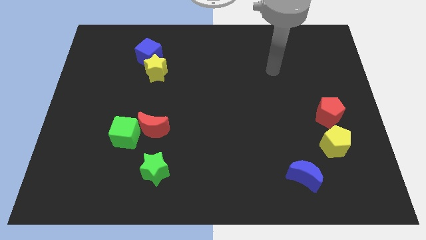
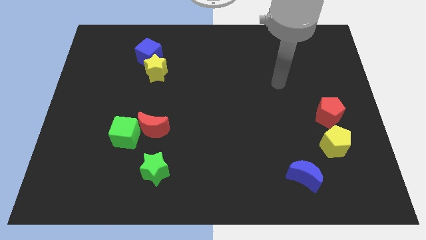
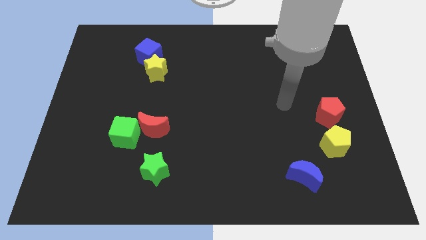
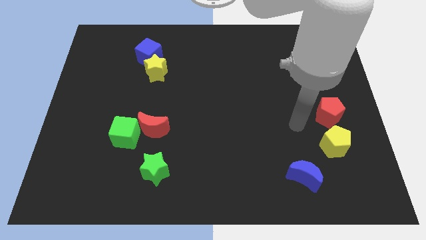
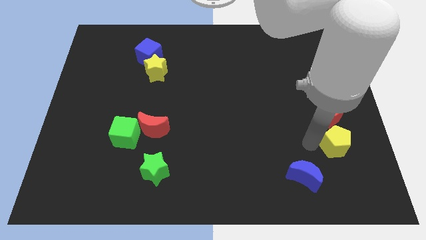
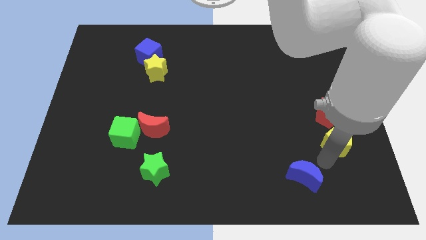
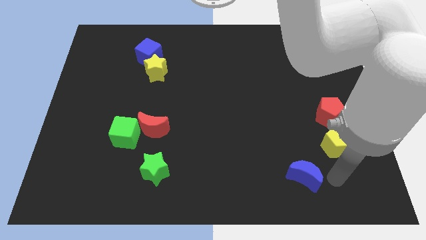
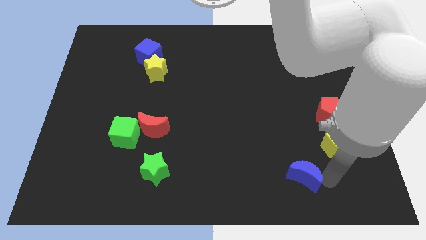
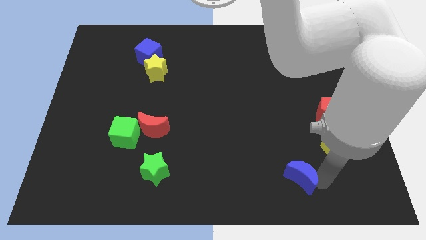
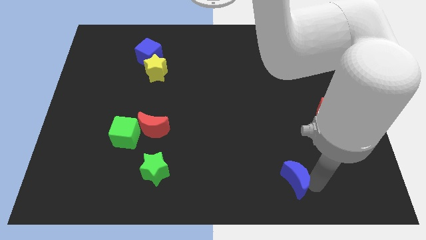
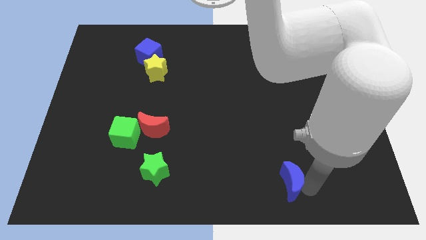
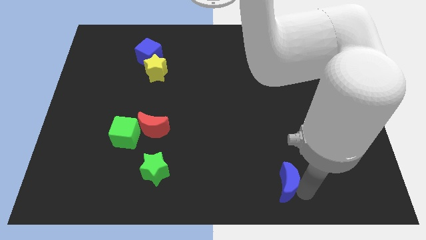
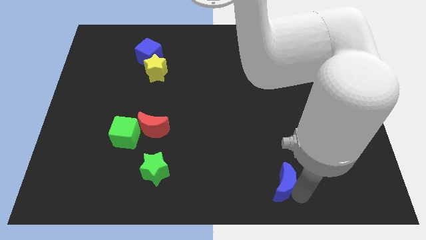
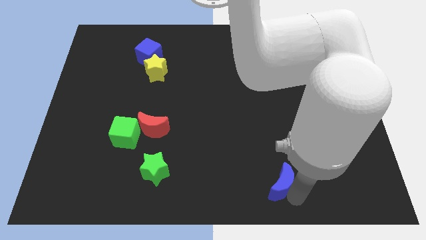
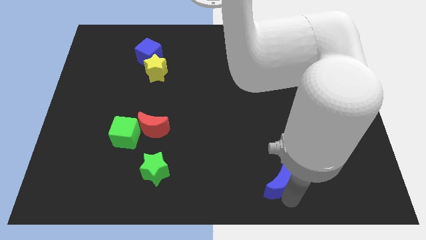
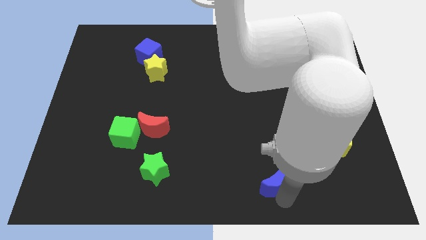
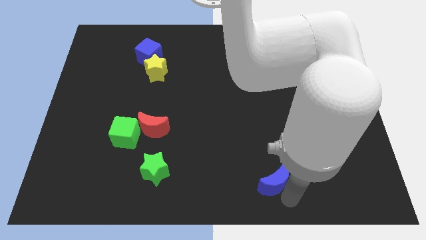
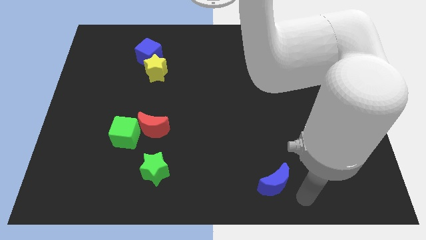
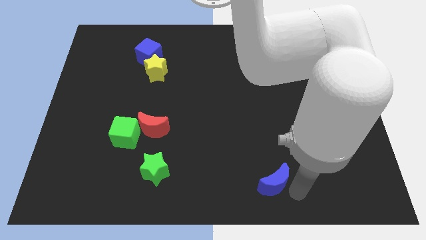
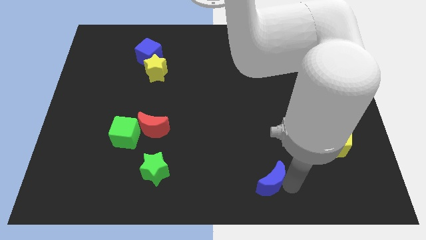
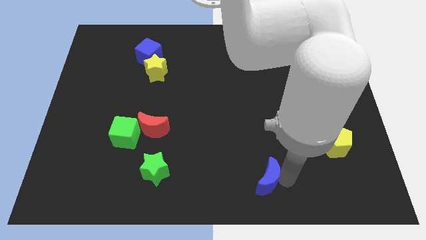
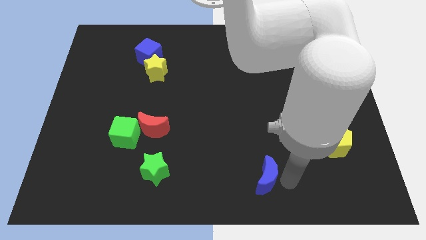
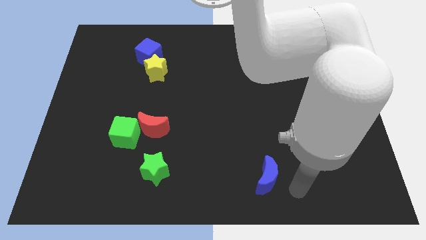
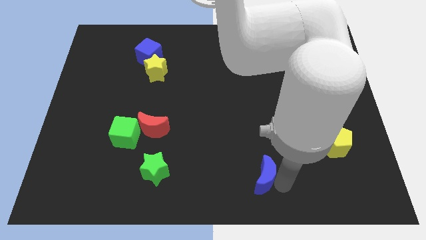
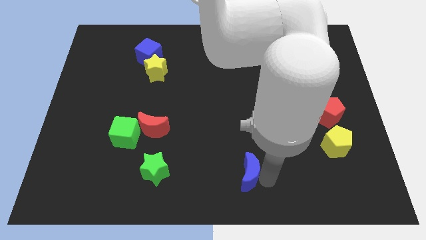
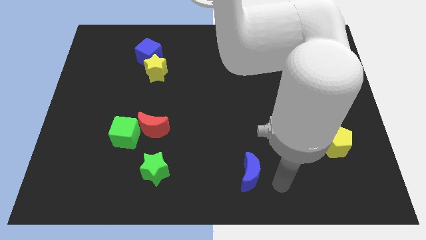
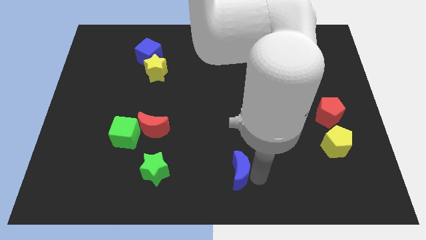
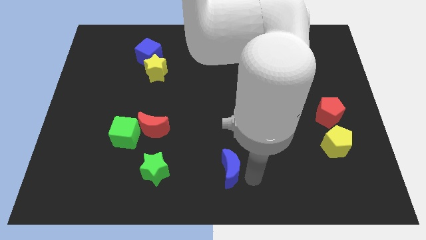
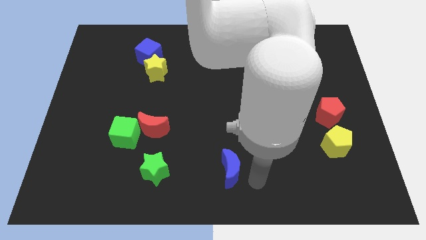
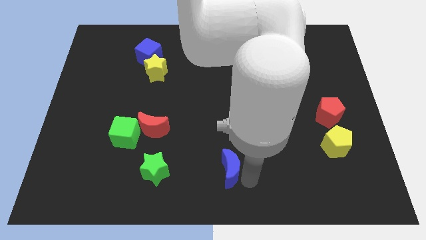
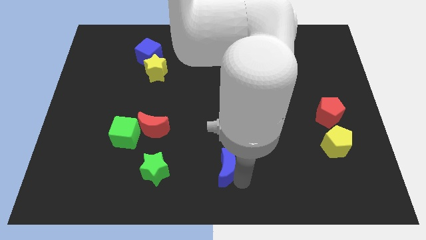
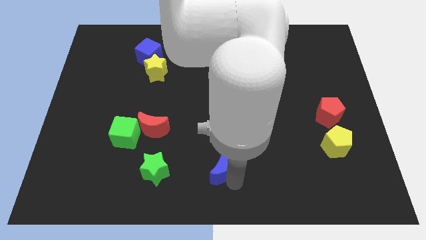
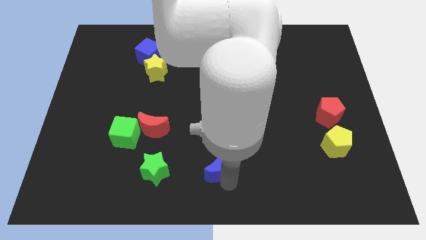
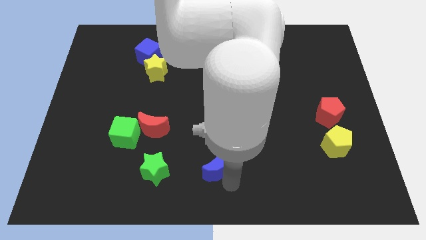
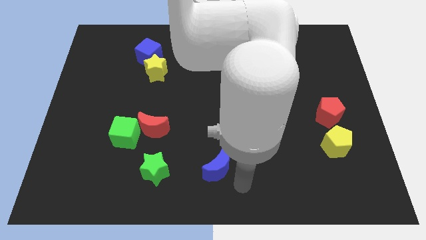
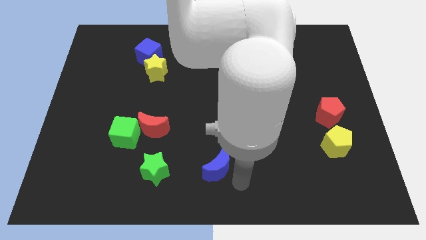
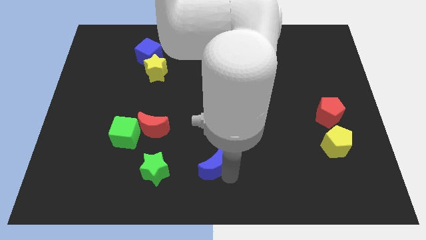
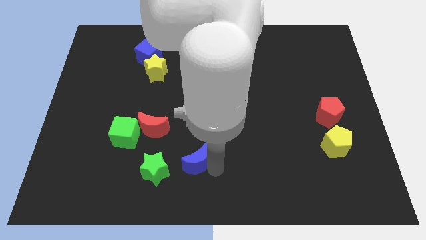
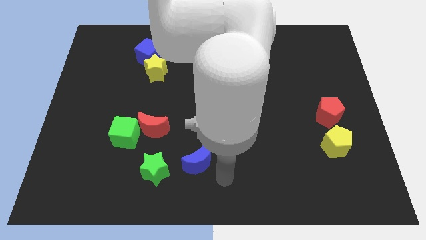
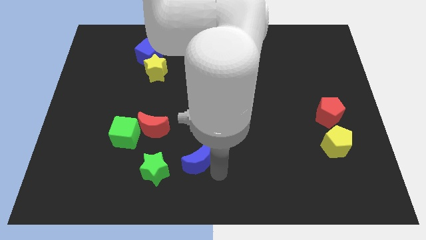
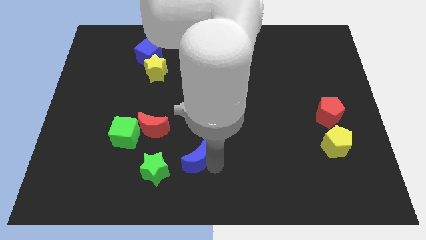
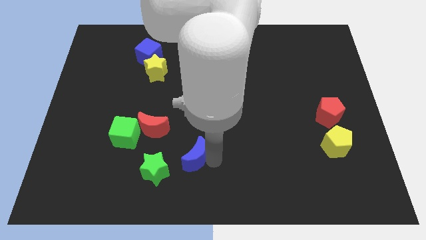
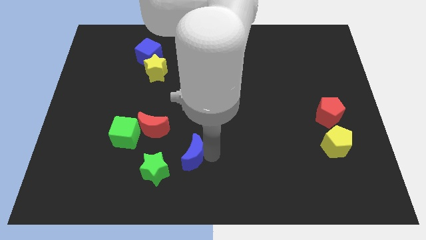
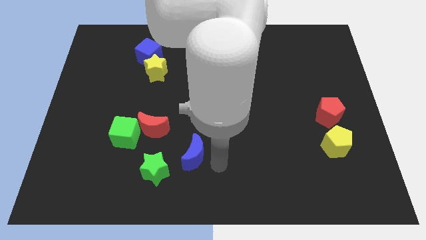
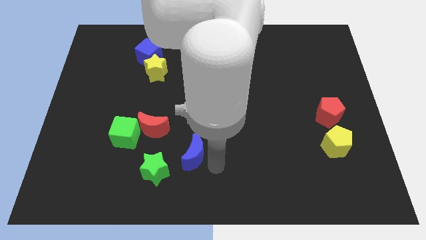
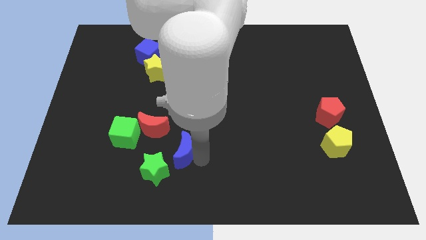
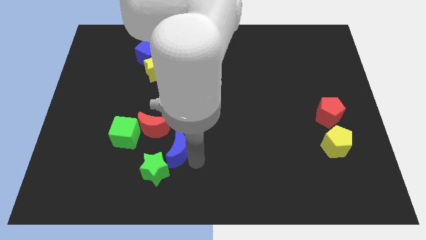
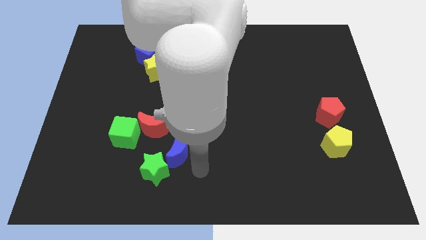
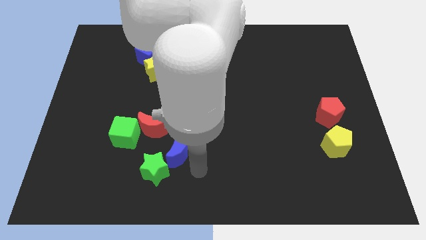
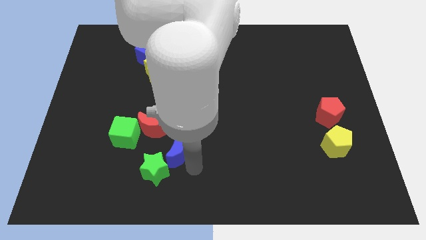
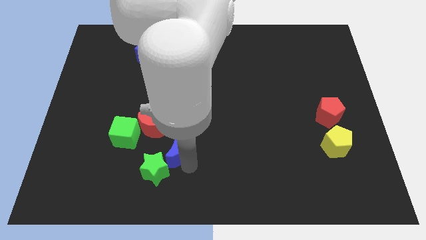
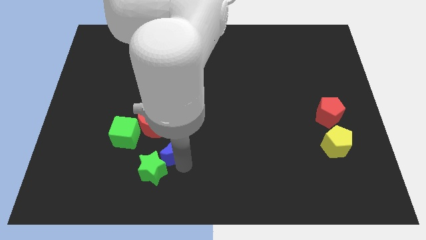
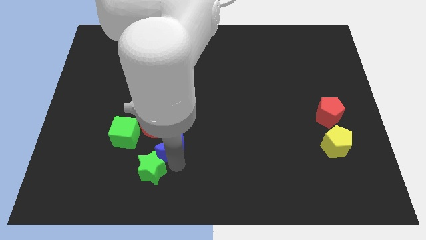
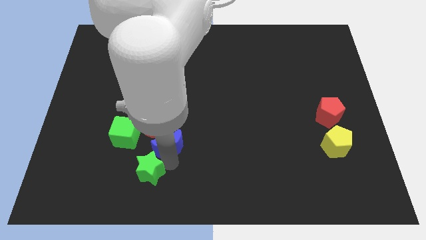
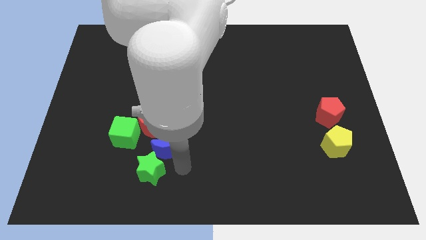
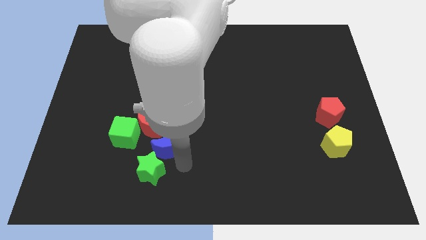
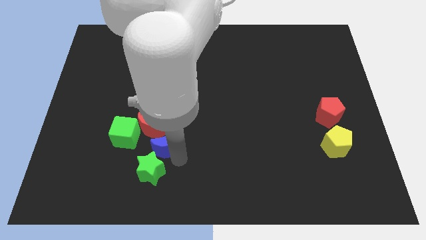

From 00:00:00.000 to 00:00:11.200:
push the blue moon next to the red moon

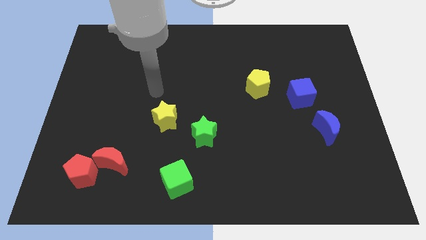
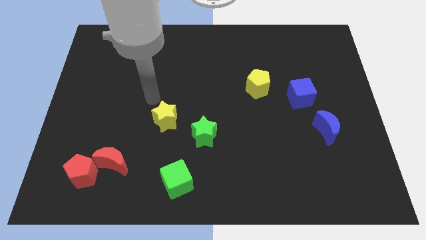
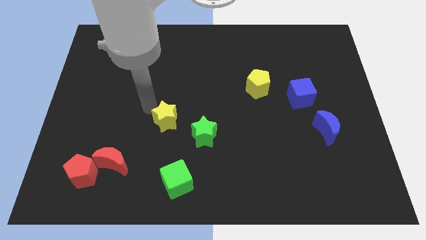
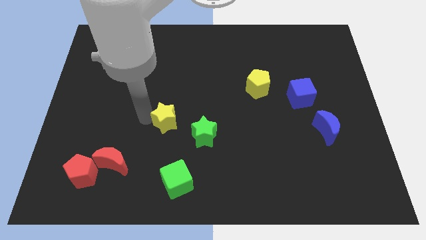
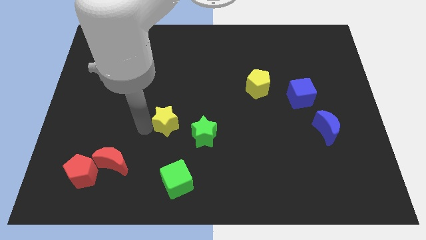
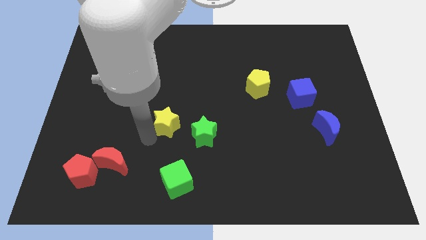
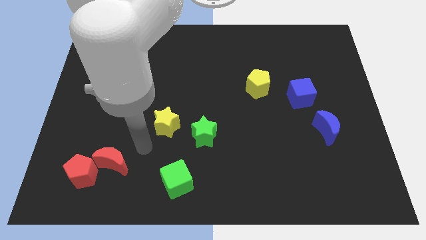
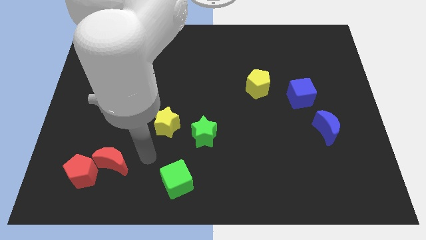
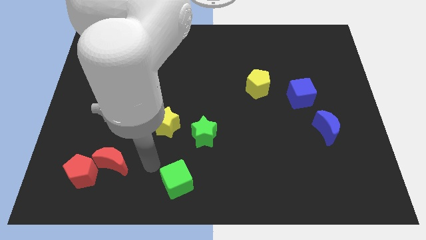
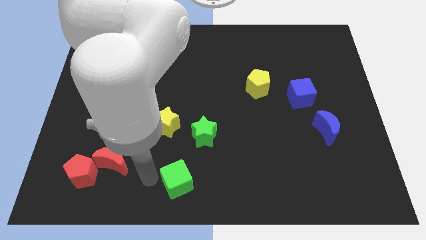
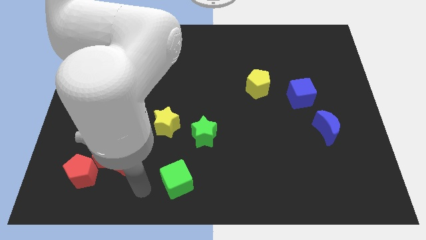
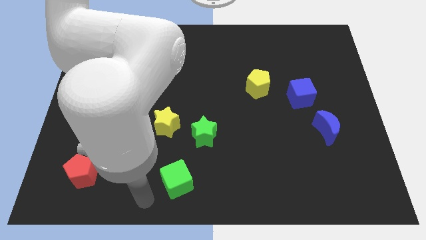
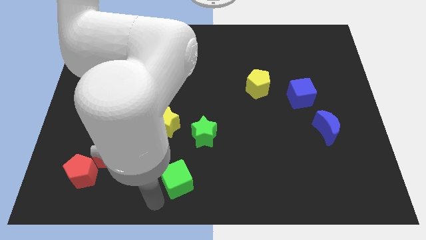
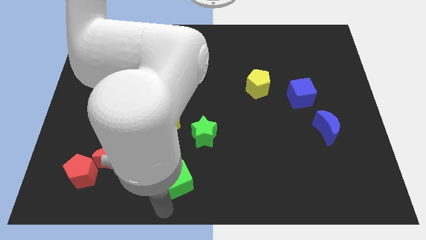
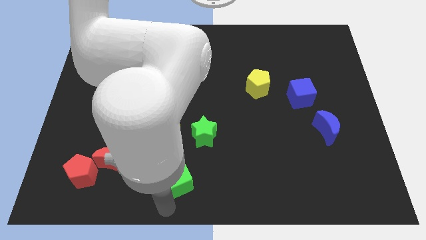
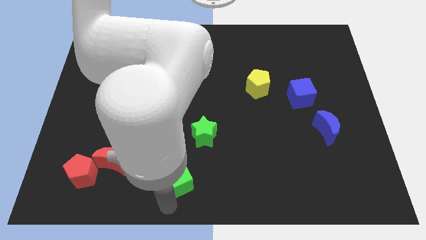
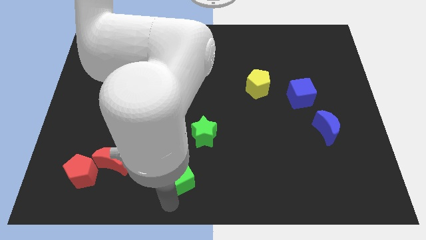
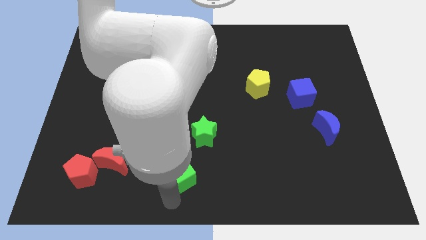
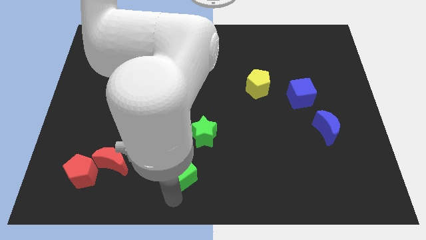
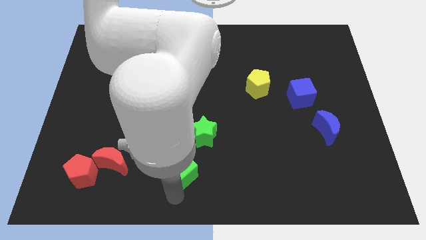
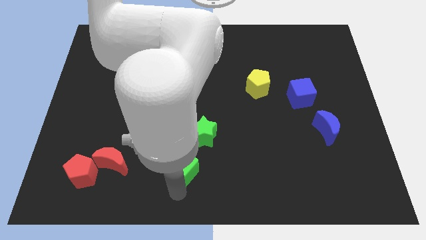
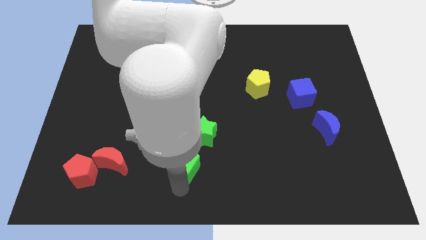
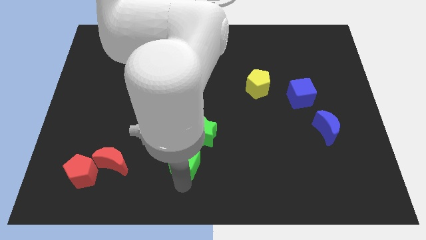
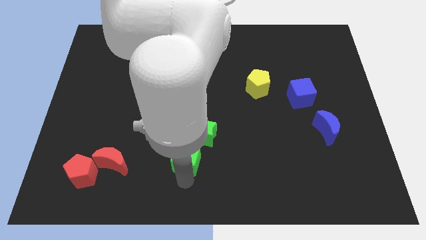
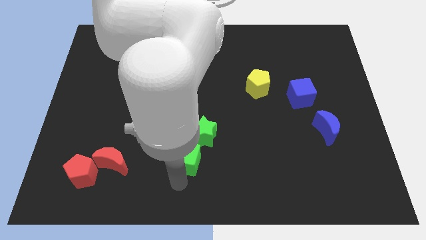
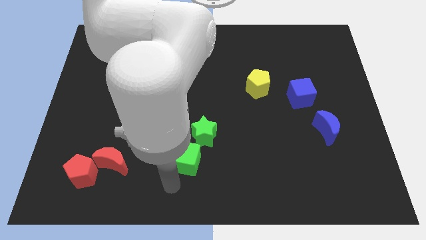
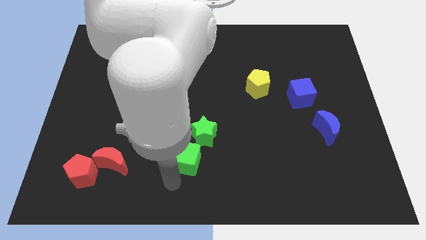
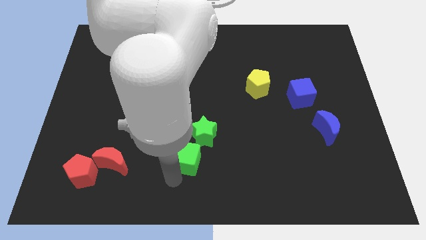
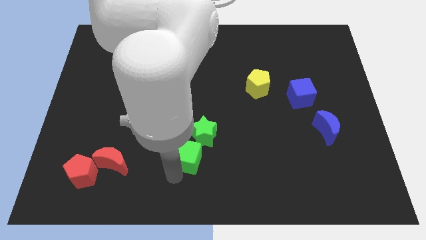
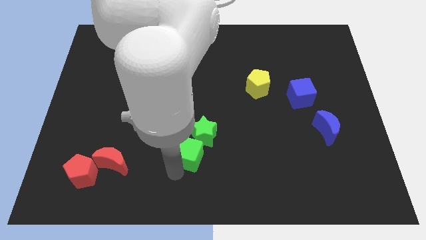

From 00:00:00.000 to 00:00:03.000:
push the green cube towards the green star
